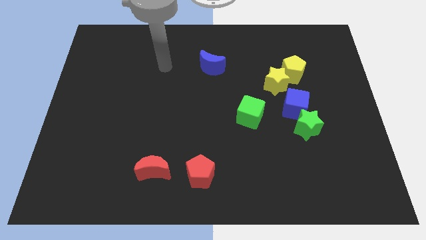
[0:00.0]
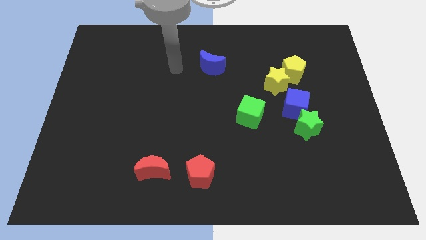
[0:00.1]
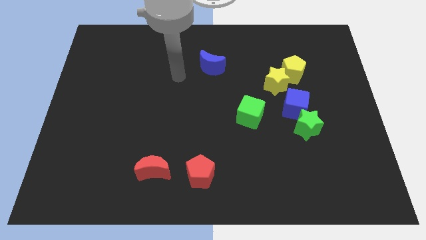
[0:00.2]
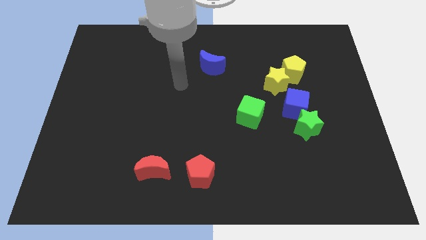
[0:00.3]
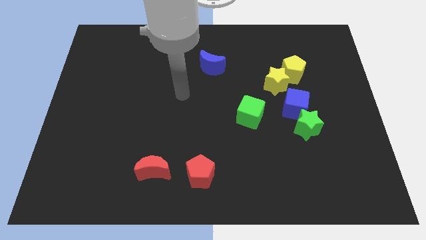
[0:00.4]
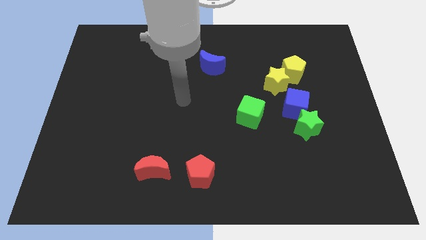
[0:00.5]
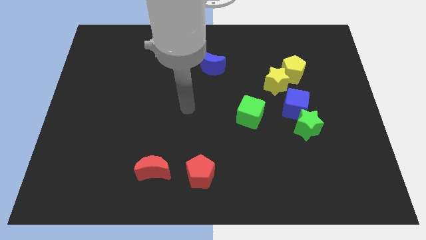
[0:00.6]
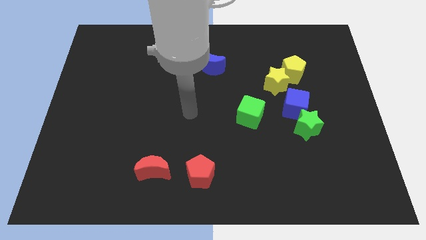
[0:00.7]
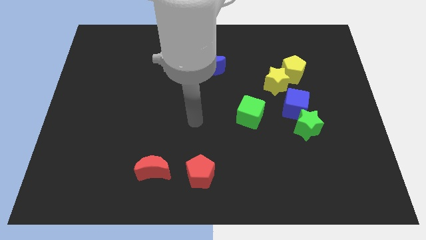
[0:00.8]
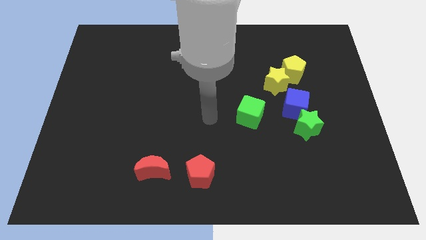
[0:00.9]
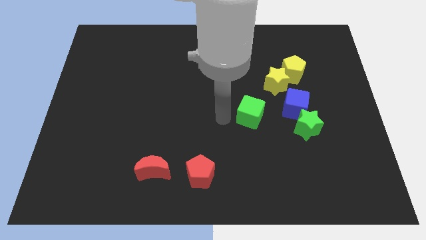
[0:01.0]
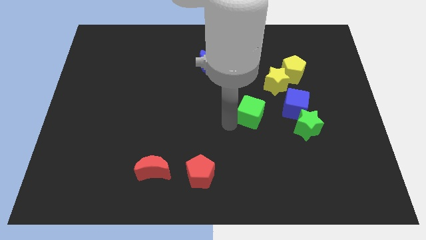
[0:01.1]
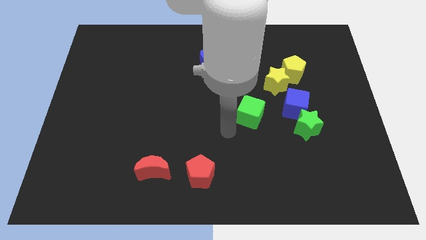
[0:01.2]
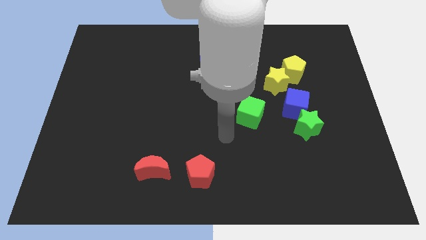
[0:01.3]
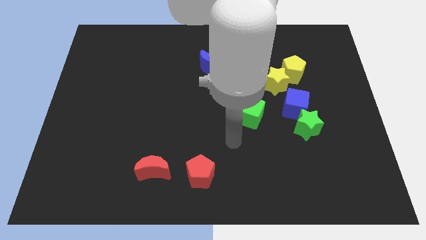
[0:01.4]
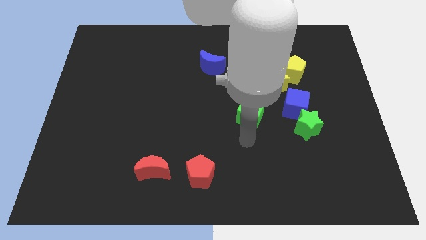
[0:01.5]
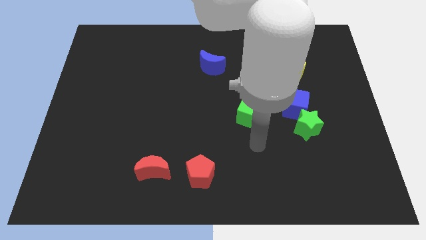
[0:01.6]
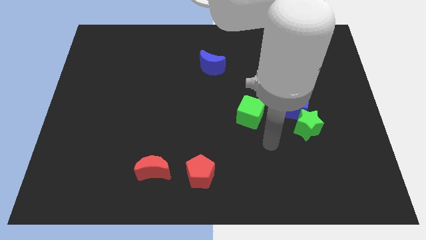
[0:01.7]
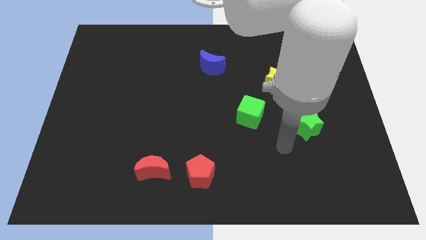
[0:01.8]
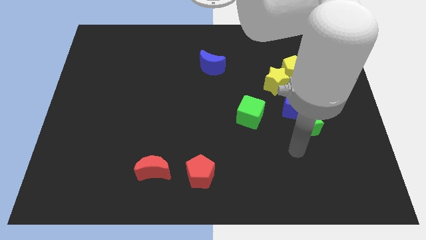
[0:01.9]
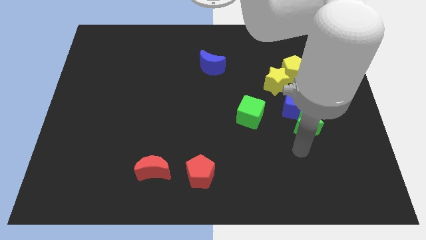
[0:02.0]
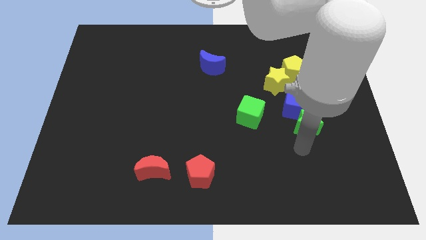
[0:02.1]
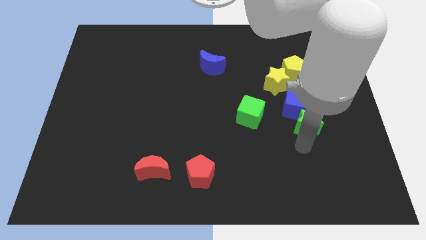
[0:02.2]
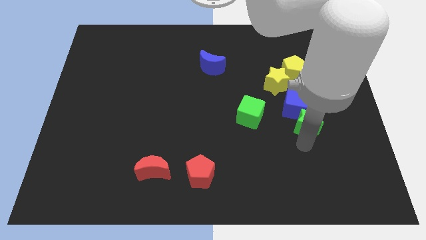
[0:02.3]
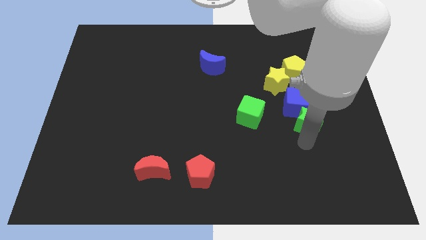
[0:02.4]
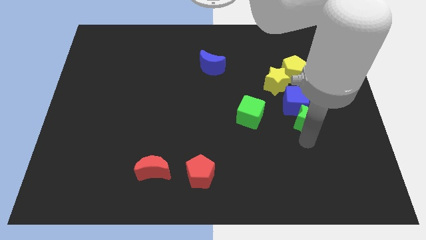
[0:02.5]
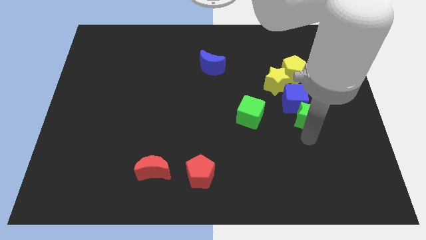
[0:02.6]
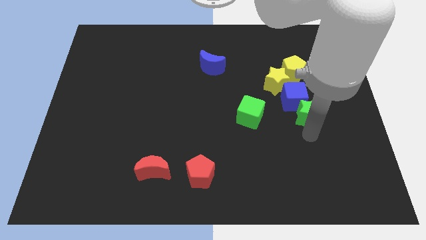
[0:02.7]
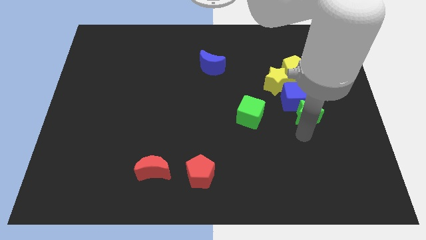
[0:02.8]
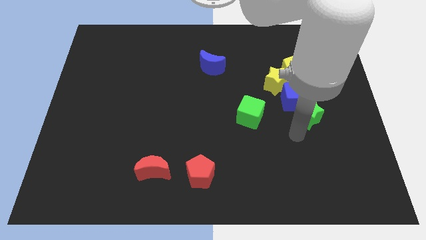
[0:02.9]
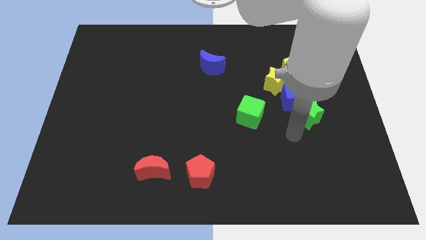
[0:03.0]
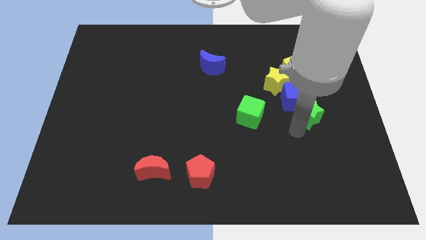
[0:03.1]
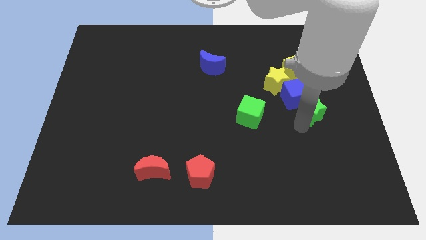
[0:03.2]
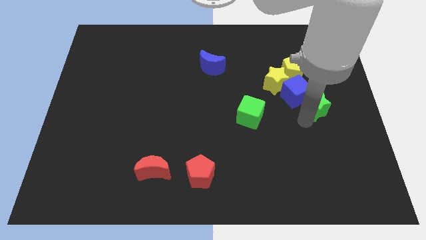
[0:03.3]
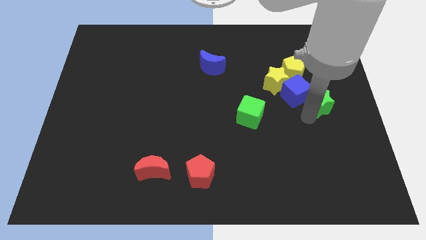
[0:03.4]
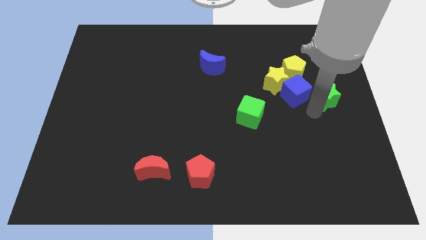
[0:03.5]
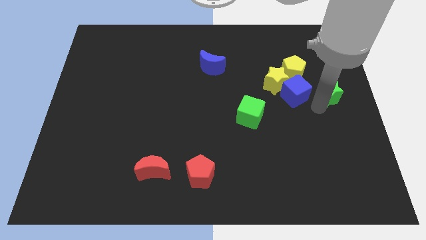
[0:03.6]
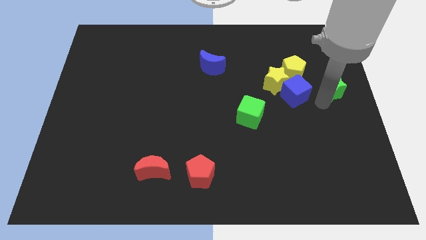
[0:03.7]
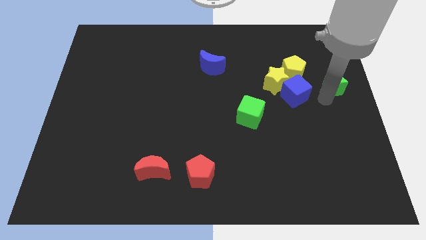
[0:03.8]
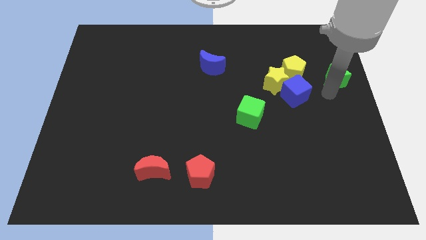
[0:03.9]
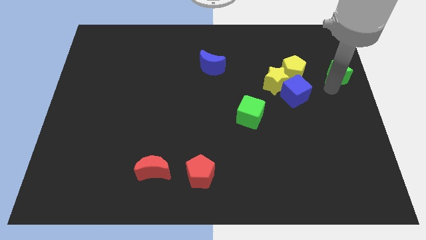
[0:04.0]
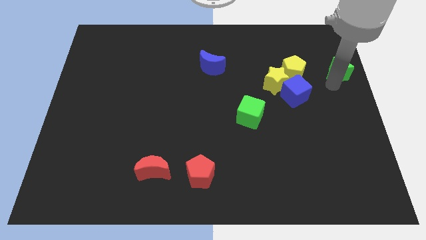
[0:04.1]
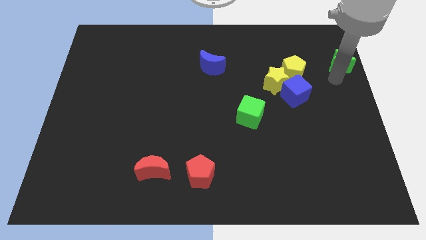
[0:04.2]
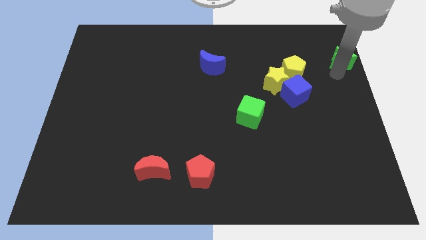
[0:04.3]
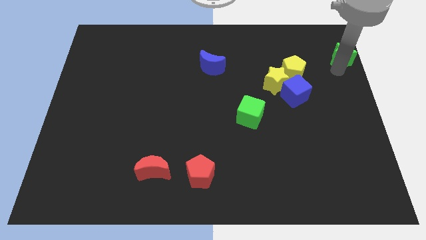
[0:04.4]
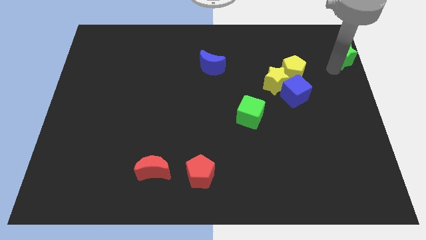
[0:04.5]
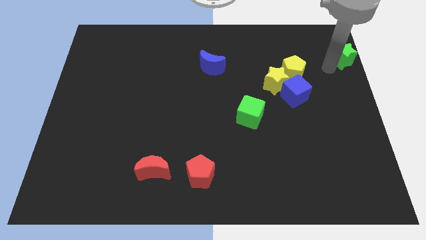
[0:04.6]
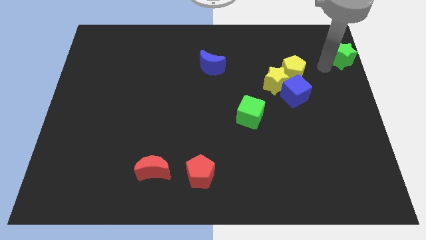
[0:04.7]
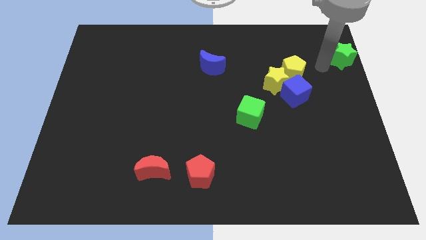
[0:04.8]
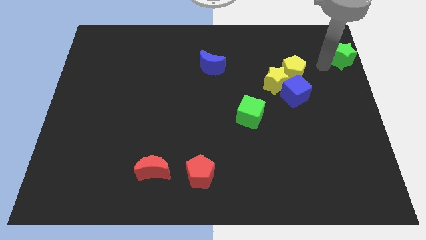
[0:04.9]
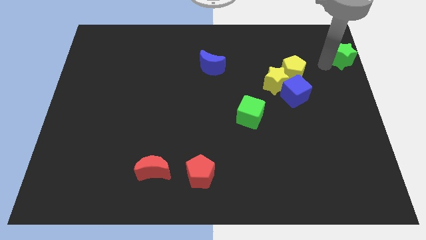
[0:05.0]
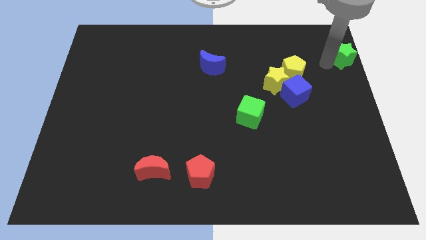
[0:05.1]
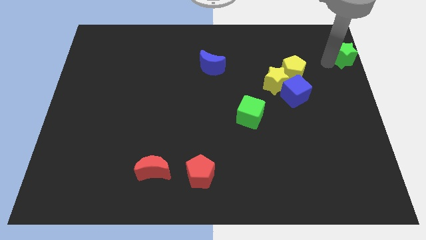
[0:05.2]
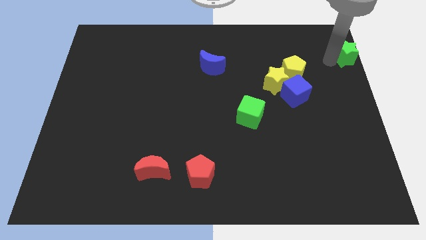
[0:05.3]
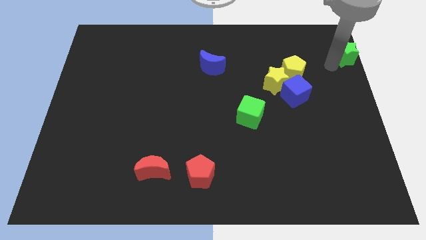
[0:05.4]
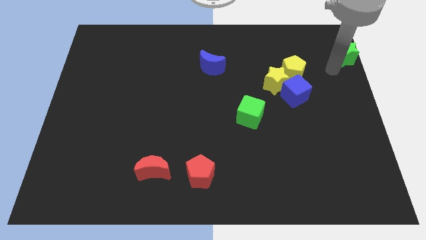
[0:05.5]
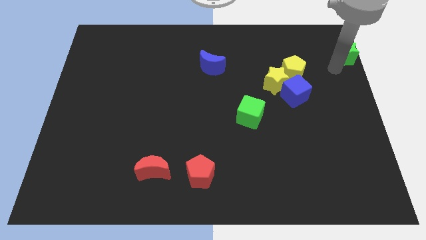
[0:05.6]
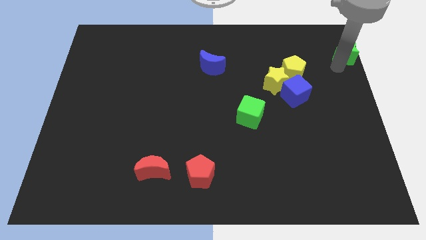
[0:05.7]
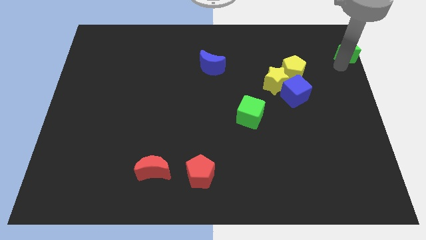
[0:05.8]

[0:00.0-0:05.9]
slide the green star to the upper right corner
